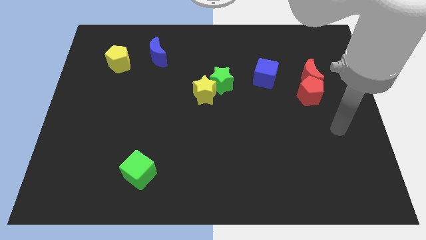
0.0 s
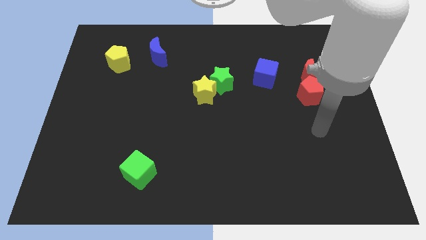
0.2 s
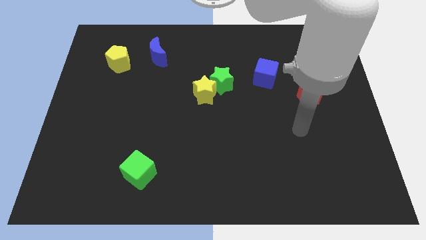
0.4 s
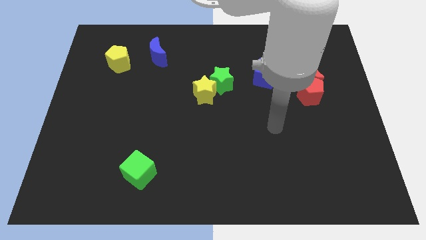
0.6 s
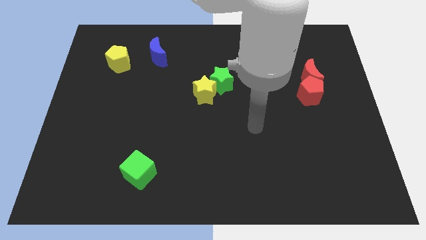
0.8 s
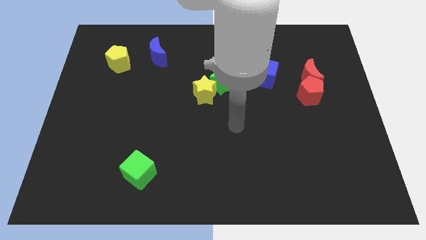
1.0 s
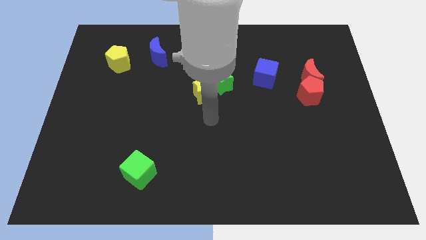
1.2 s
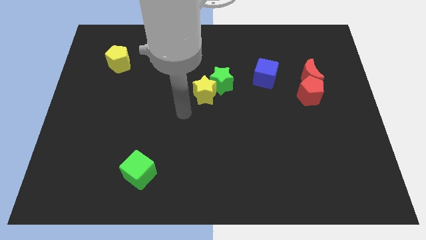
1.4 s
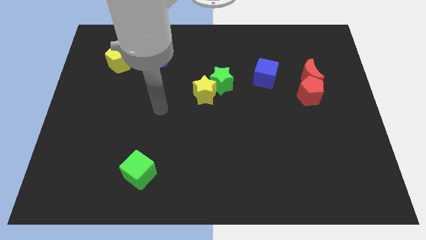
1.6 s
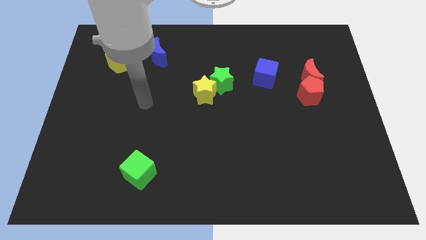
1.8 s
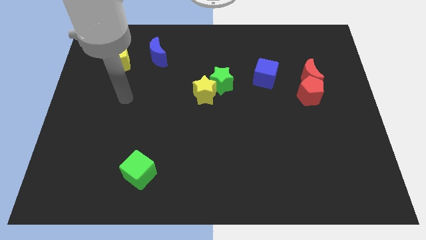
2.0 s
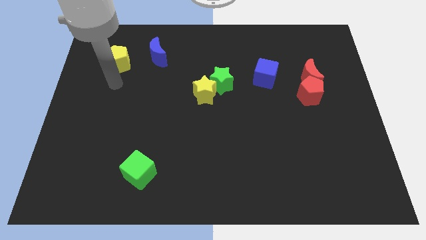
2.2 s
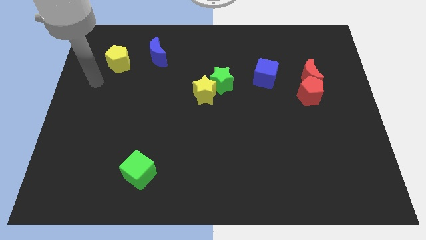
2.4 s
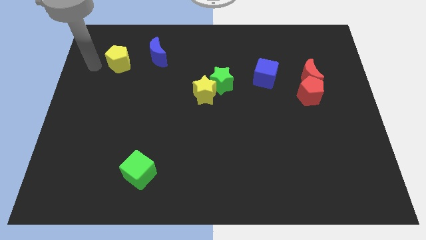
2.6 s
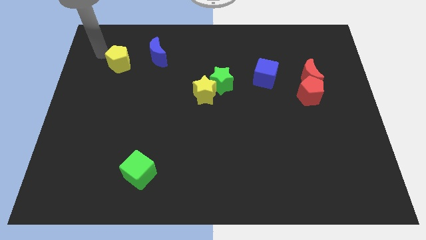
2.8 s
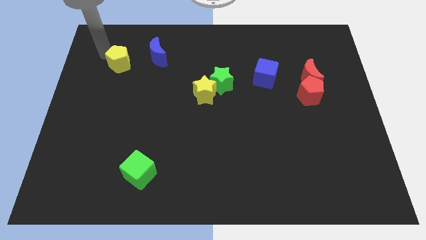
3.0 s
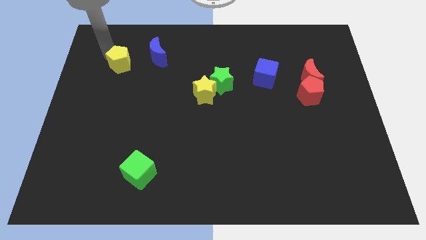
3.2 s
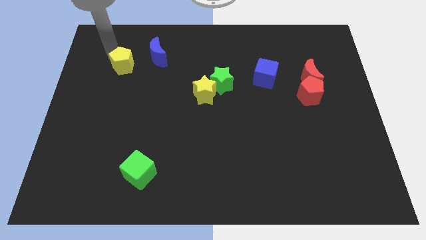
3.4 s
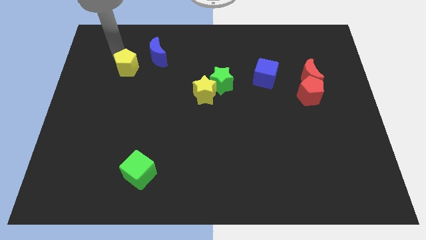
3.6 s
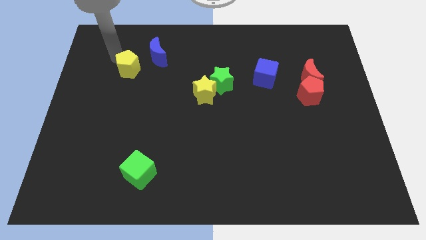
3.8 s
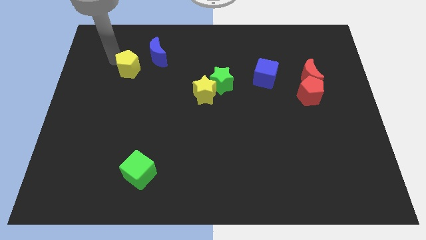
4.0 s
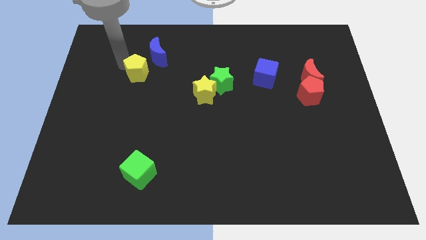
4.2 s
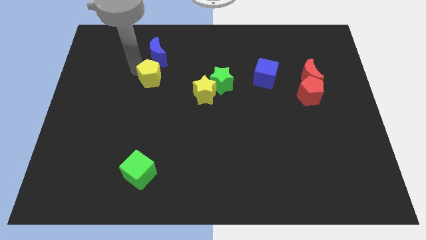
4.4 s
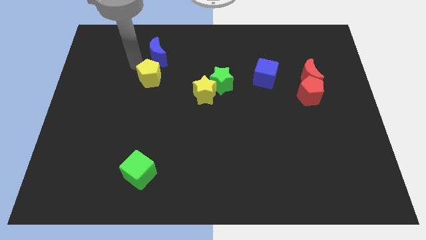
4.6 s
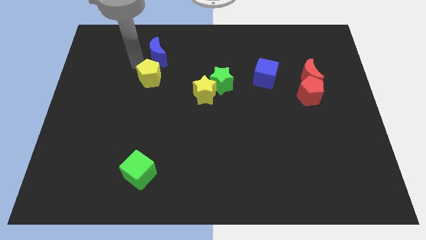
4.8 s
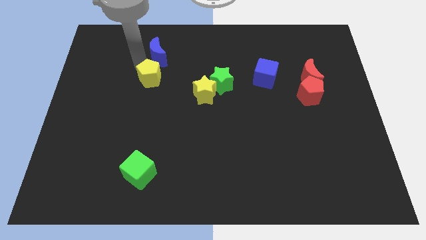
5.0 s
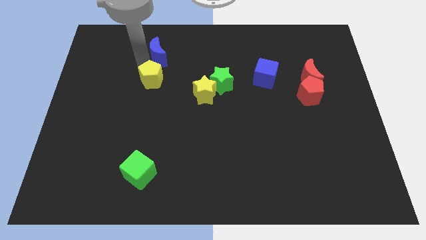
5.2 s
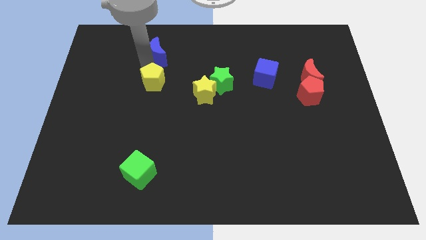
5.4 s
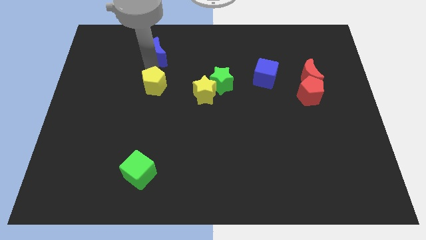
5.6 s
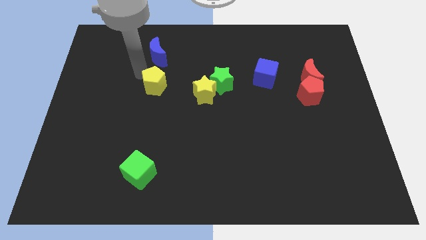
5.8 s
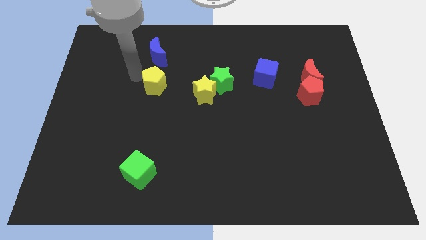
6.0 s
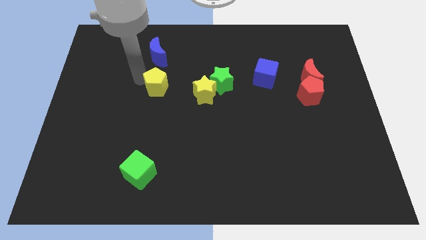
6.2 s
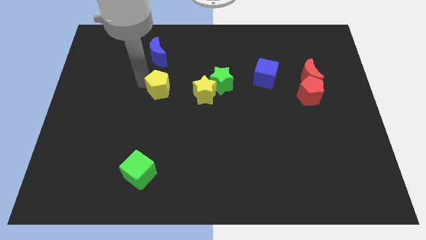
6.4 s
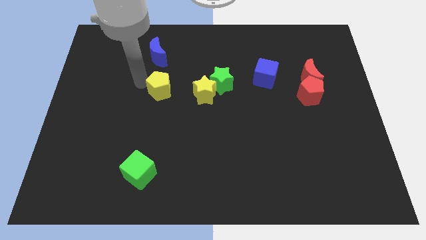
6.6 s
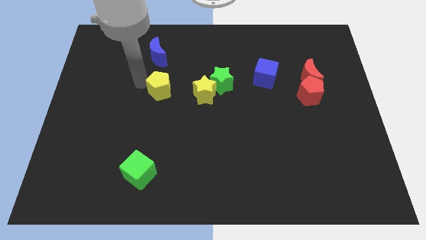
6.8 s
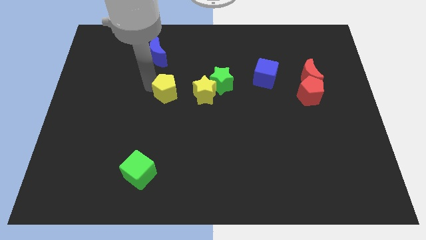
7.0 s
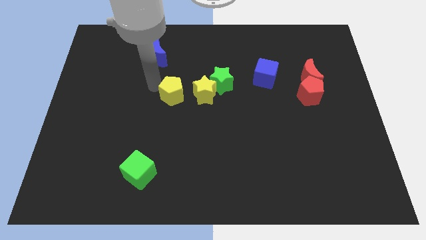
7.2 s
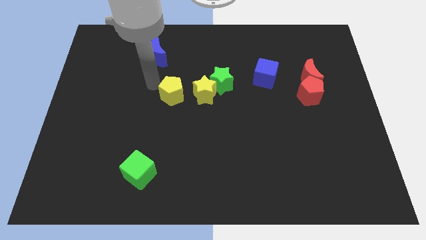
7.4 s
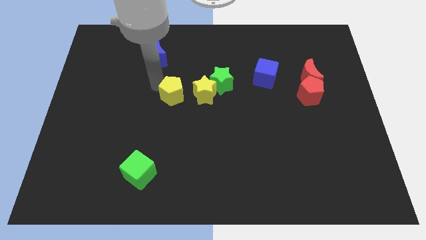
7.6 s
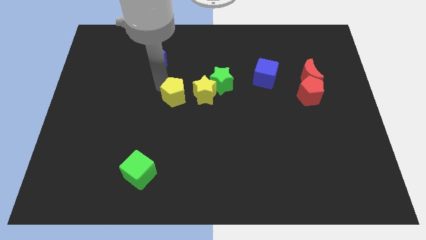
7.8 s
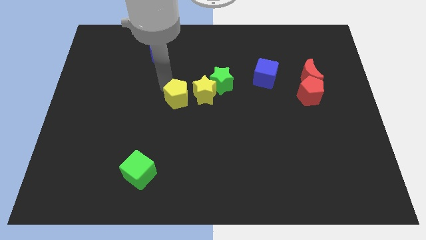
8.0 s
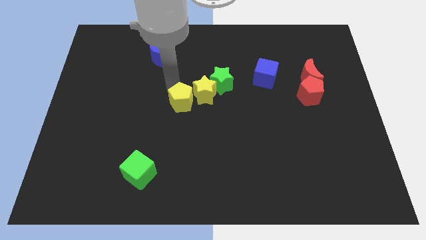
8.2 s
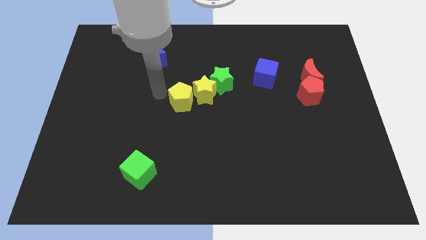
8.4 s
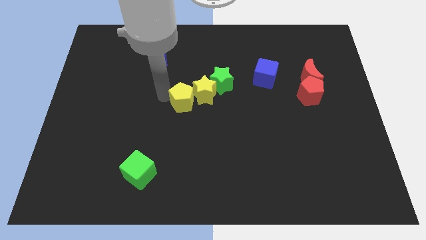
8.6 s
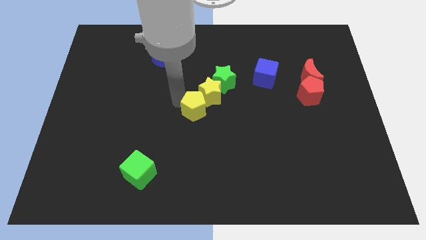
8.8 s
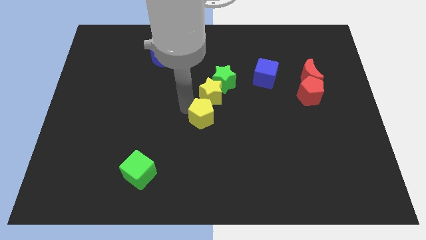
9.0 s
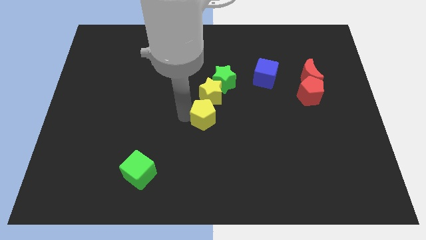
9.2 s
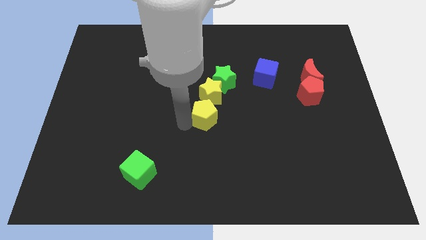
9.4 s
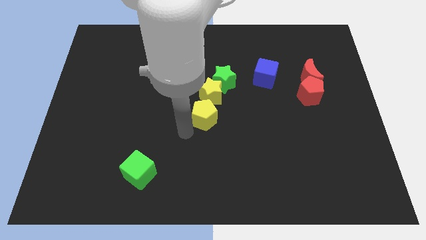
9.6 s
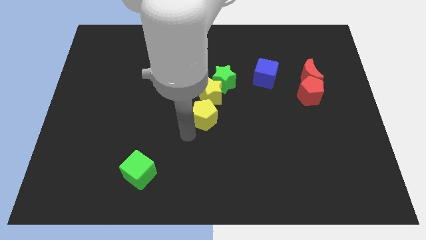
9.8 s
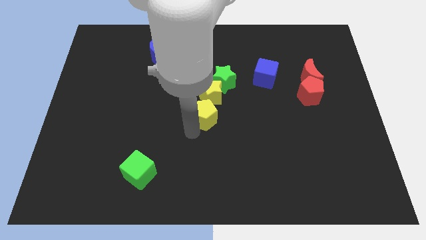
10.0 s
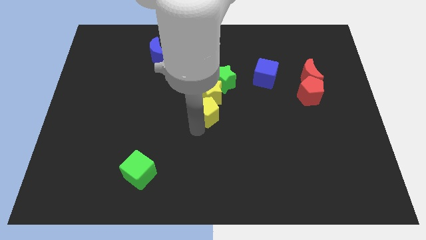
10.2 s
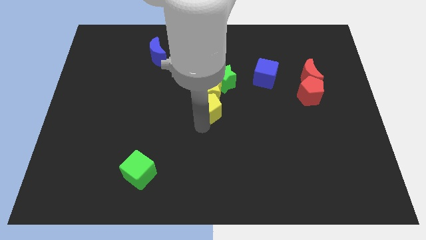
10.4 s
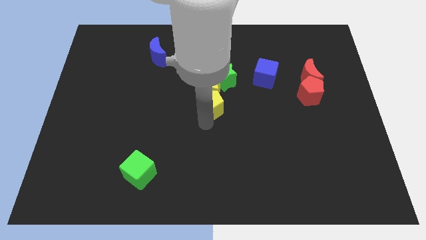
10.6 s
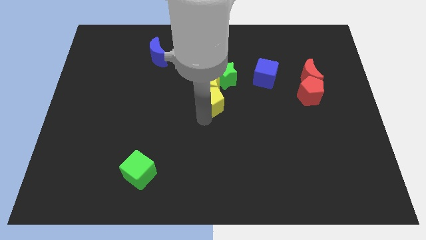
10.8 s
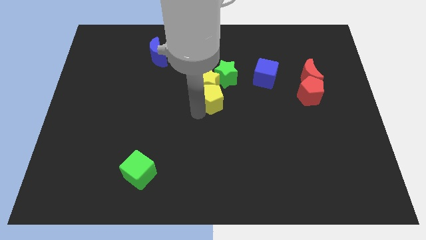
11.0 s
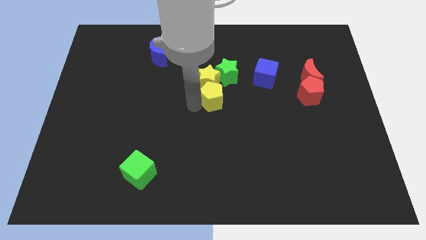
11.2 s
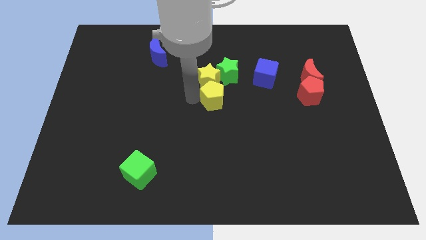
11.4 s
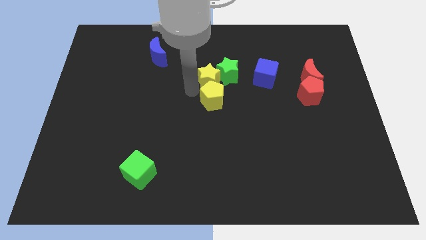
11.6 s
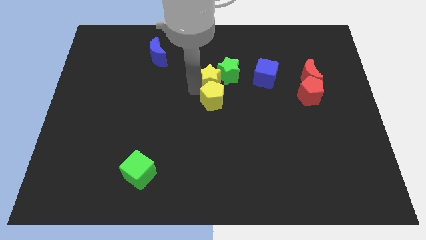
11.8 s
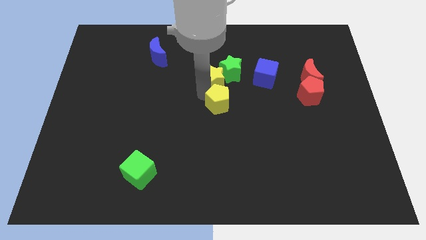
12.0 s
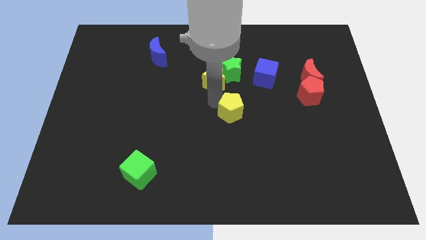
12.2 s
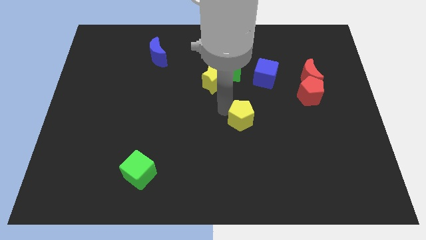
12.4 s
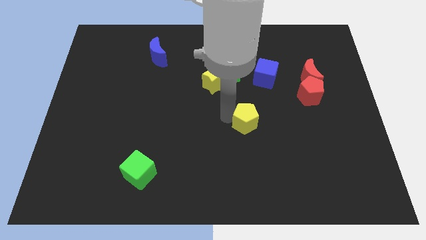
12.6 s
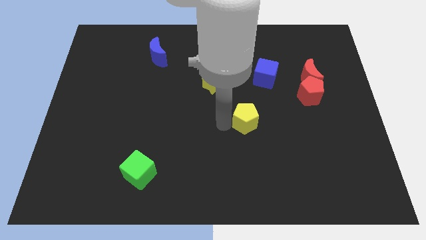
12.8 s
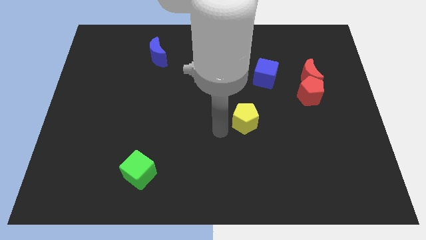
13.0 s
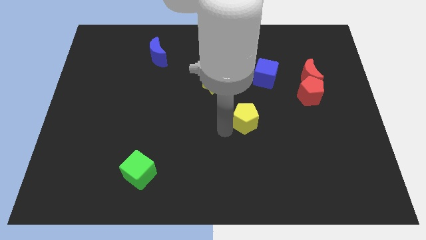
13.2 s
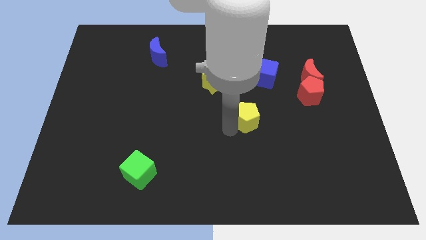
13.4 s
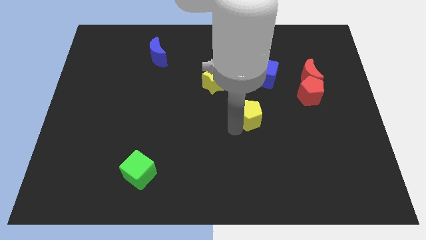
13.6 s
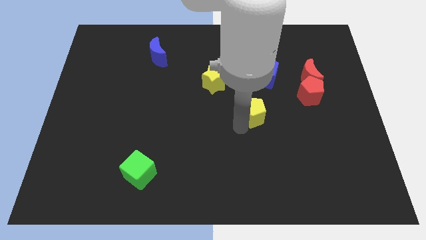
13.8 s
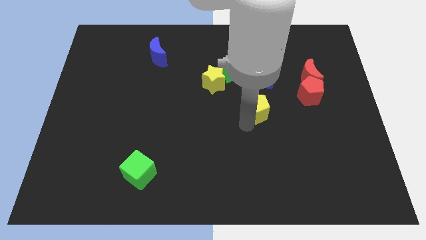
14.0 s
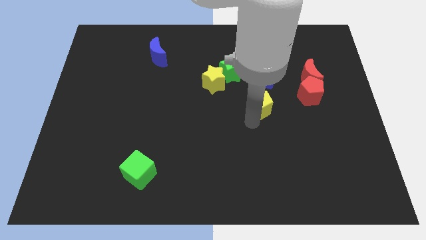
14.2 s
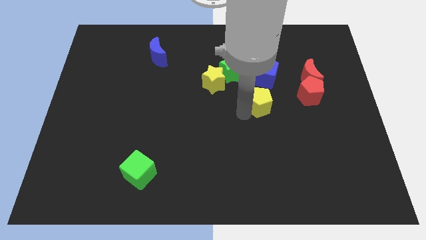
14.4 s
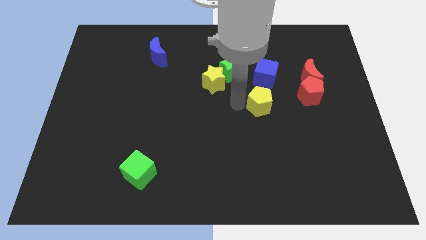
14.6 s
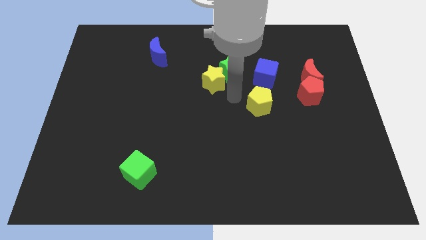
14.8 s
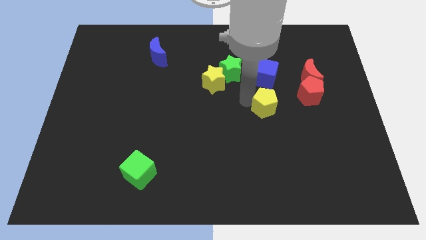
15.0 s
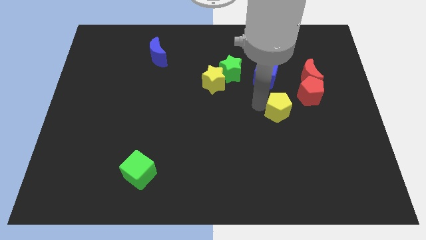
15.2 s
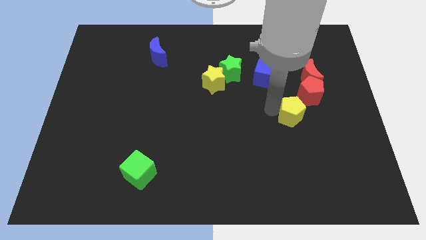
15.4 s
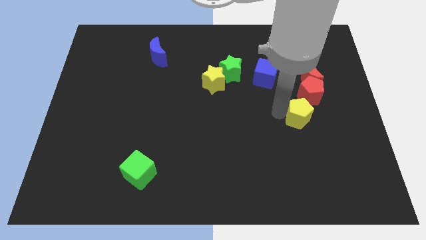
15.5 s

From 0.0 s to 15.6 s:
move the yellow pentagon to the bottom of the red moon
